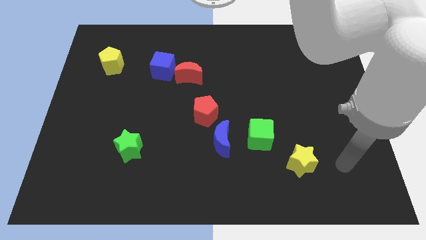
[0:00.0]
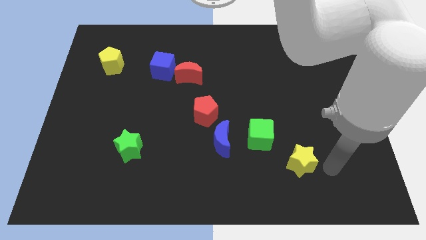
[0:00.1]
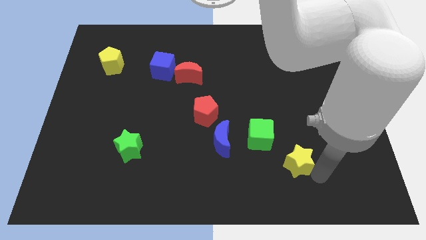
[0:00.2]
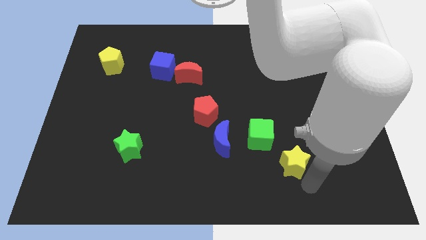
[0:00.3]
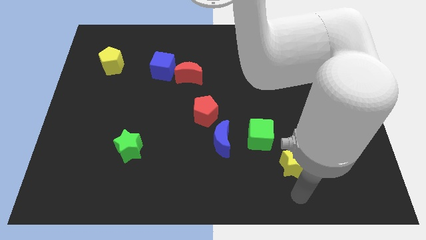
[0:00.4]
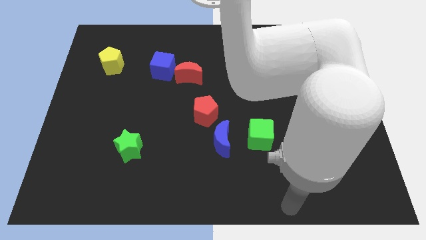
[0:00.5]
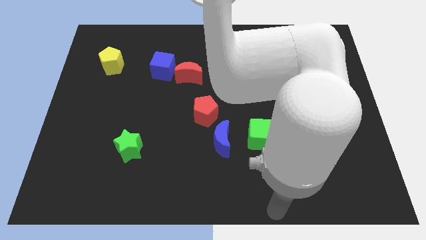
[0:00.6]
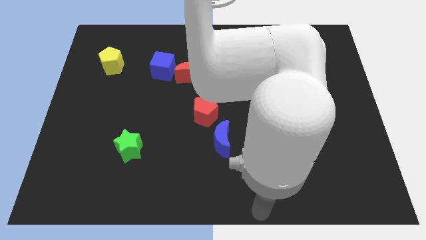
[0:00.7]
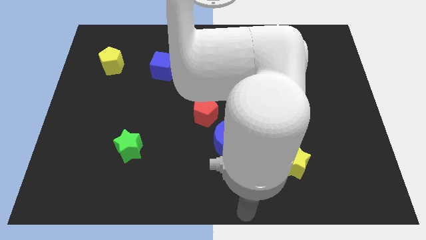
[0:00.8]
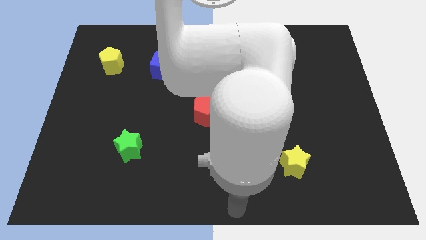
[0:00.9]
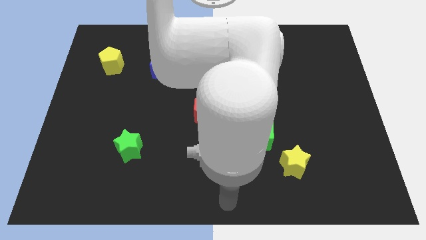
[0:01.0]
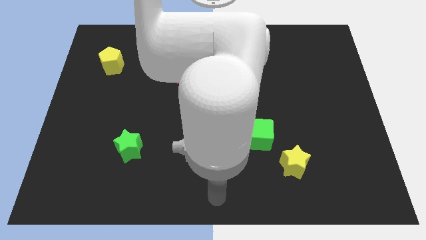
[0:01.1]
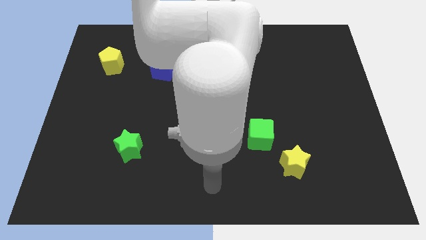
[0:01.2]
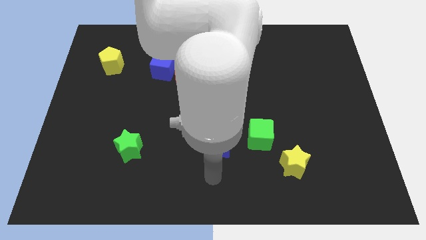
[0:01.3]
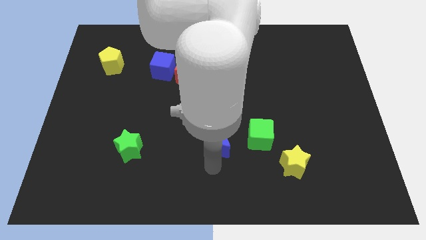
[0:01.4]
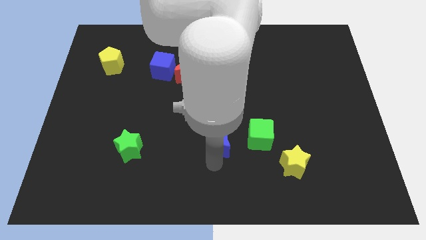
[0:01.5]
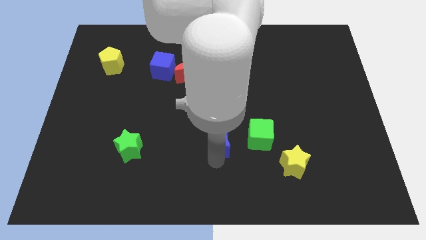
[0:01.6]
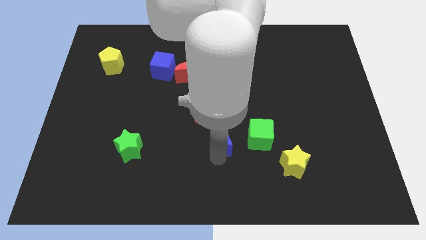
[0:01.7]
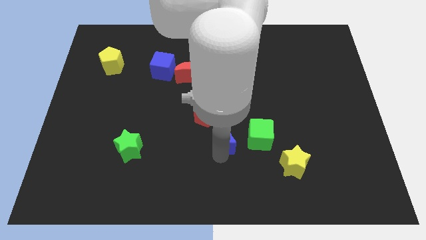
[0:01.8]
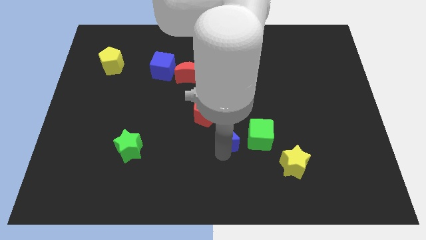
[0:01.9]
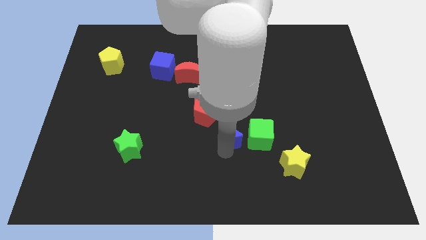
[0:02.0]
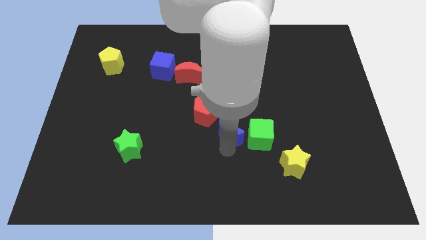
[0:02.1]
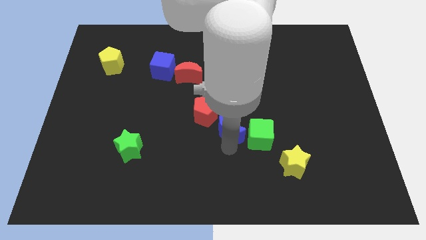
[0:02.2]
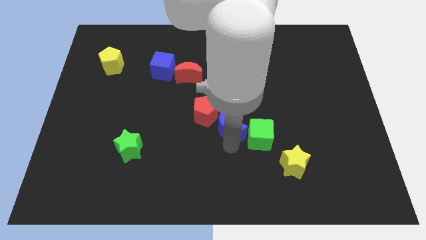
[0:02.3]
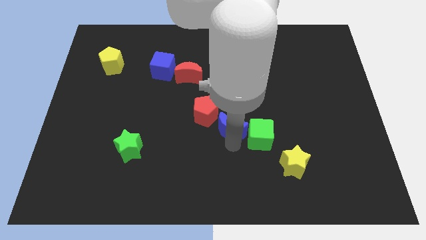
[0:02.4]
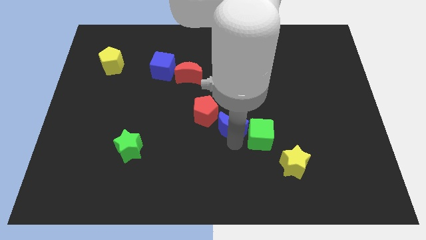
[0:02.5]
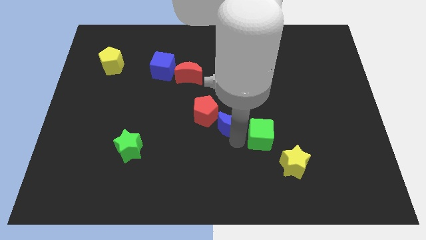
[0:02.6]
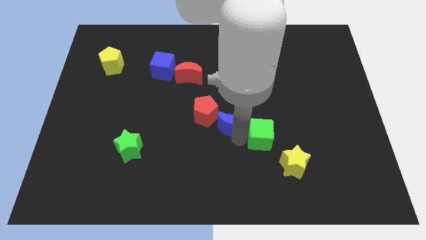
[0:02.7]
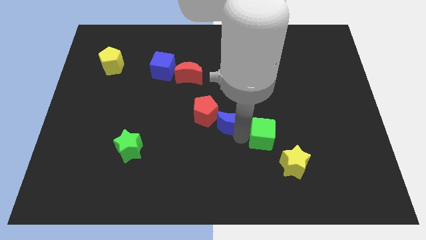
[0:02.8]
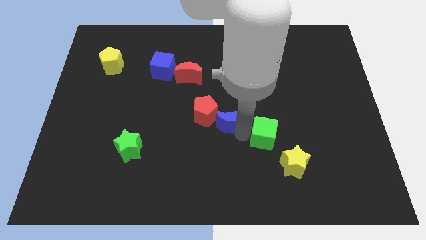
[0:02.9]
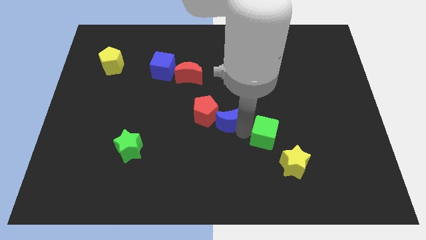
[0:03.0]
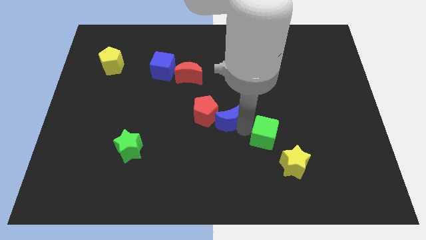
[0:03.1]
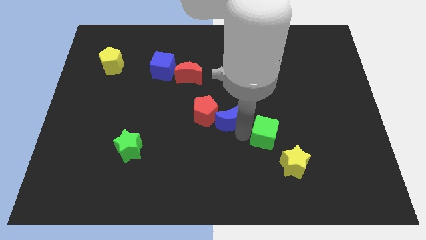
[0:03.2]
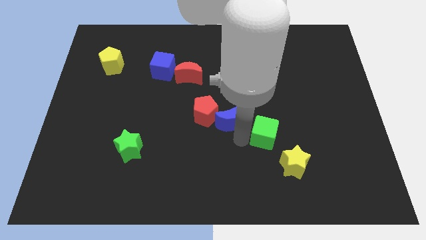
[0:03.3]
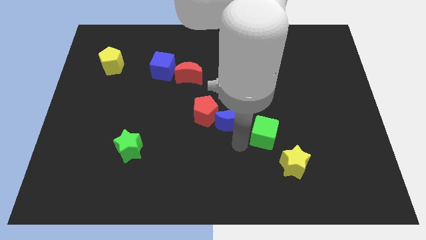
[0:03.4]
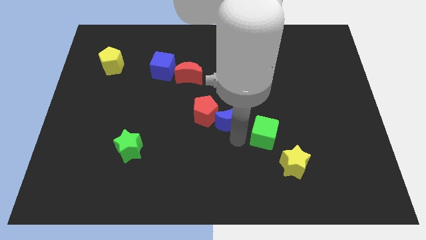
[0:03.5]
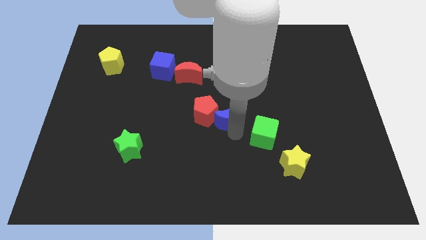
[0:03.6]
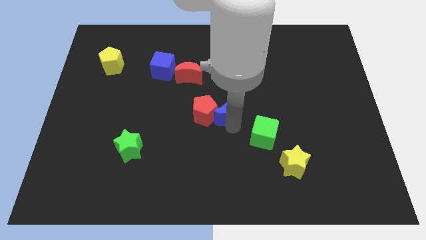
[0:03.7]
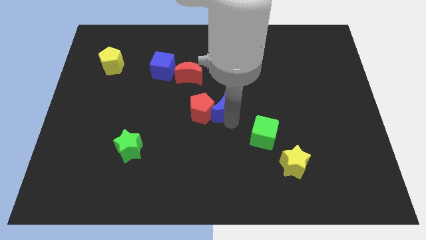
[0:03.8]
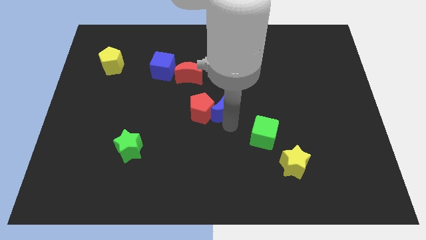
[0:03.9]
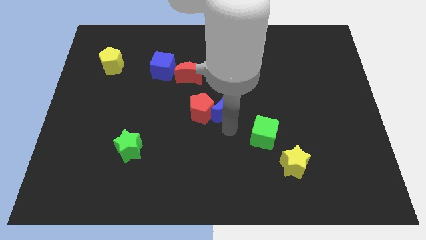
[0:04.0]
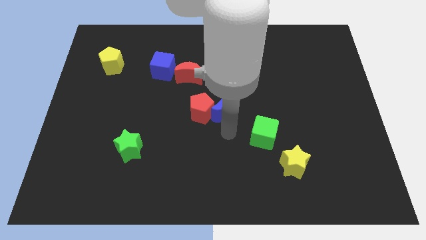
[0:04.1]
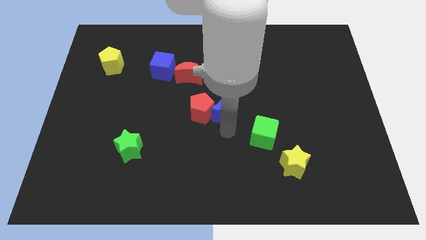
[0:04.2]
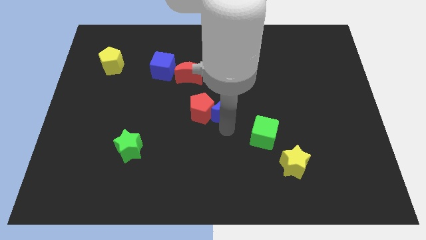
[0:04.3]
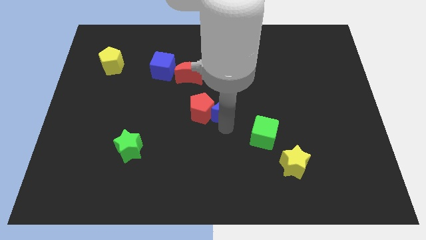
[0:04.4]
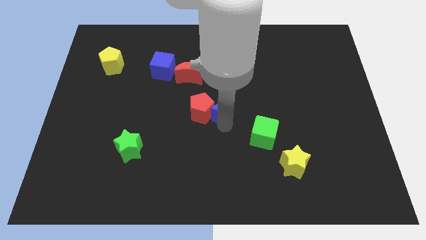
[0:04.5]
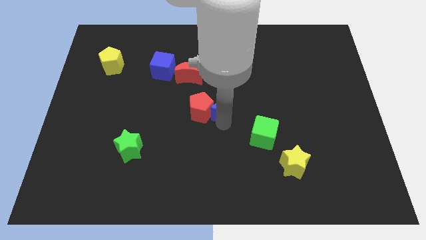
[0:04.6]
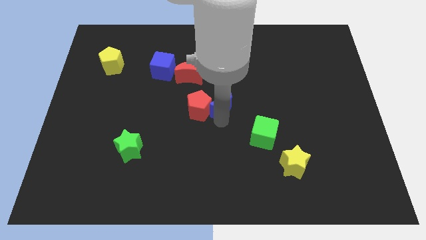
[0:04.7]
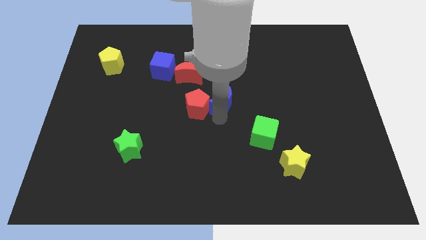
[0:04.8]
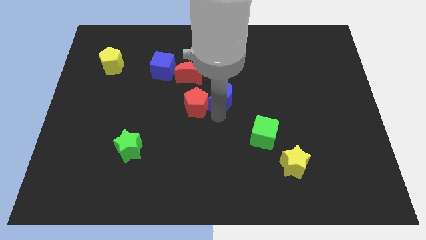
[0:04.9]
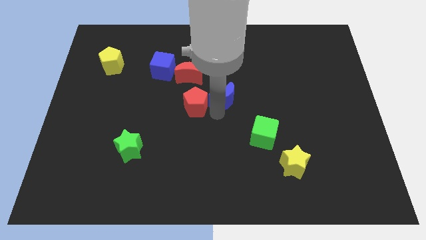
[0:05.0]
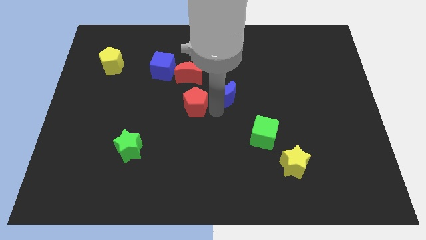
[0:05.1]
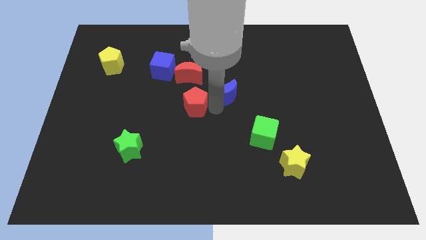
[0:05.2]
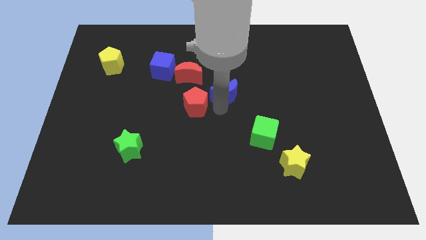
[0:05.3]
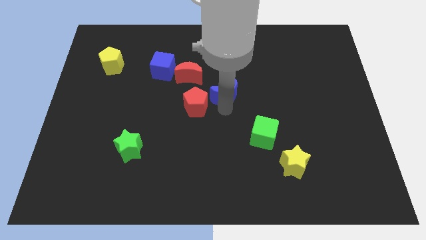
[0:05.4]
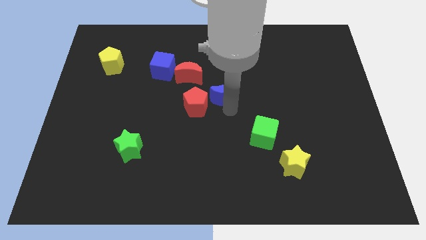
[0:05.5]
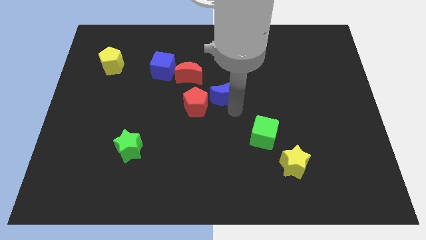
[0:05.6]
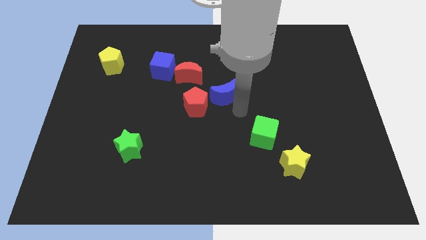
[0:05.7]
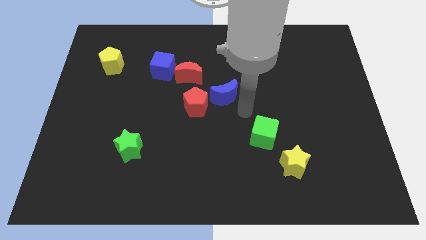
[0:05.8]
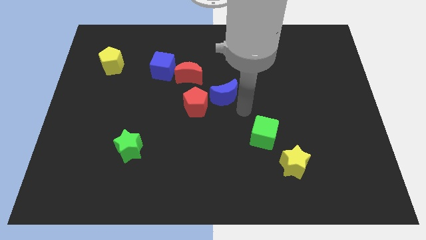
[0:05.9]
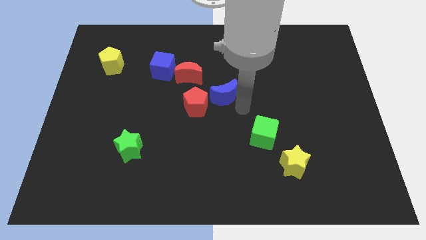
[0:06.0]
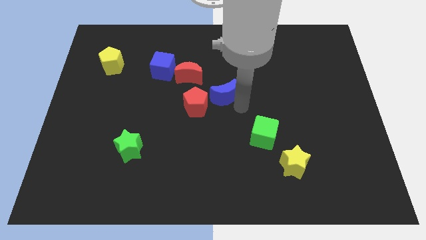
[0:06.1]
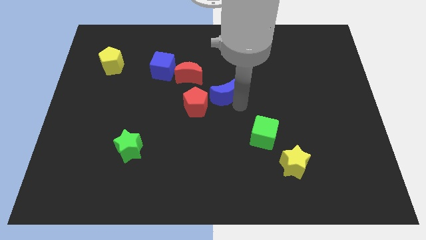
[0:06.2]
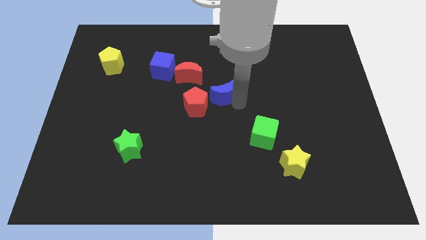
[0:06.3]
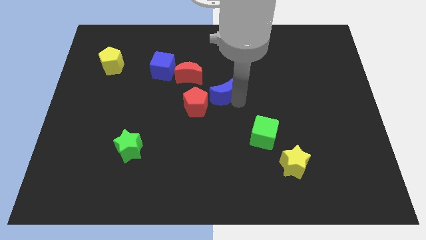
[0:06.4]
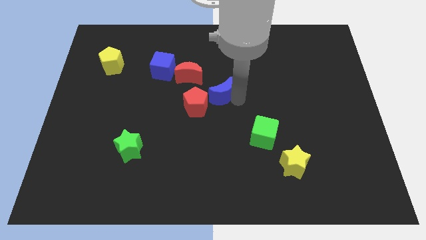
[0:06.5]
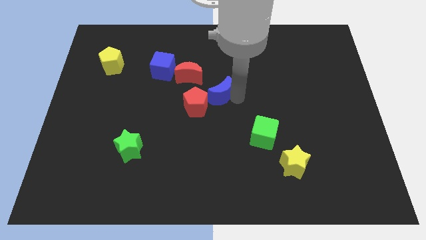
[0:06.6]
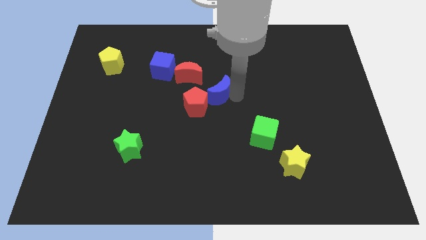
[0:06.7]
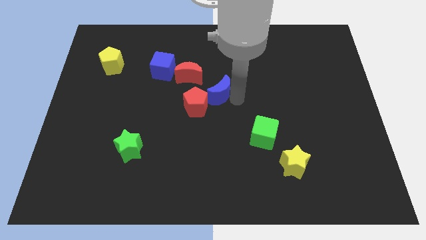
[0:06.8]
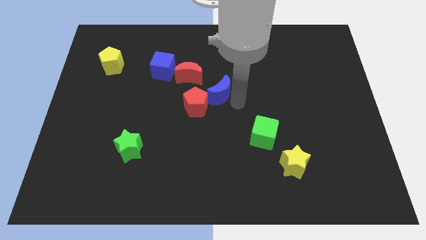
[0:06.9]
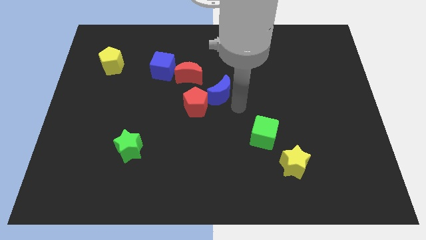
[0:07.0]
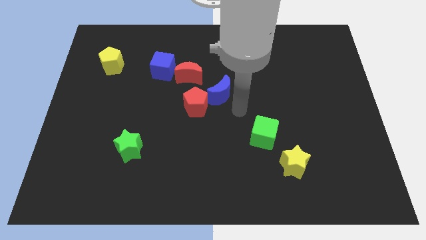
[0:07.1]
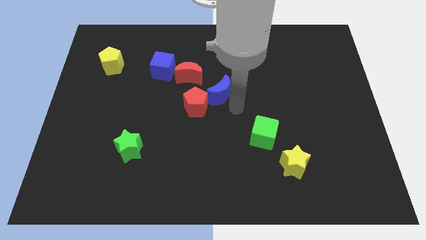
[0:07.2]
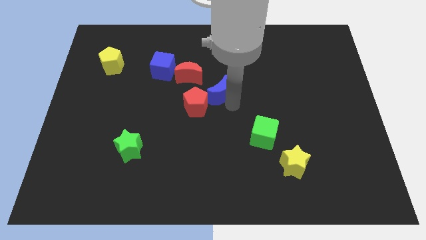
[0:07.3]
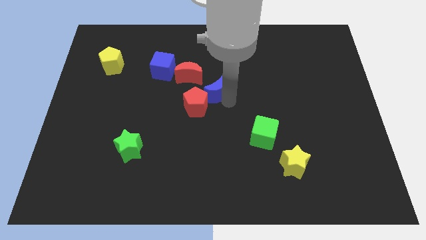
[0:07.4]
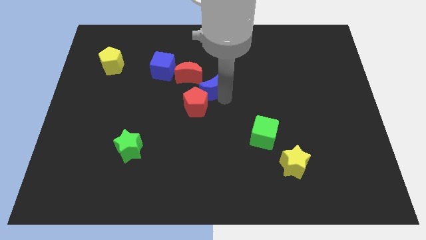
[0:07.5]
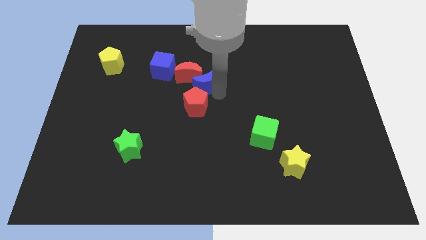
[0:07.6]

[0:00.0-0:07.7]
push the blue moon next to the red moon
